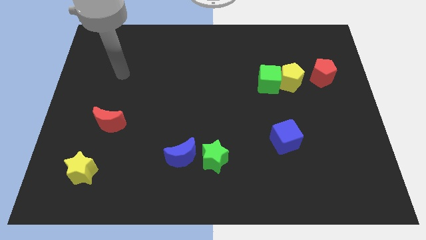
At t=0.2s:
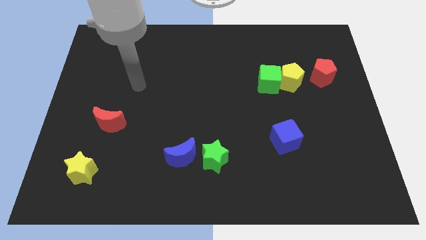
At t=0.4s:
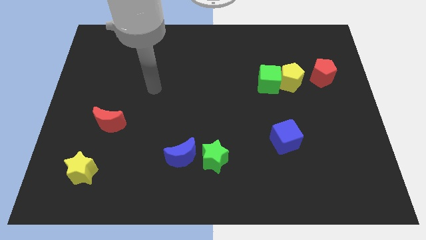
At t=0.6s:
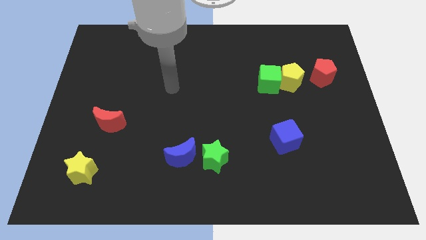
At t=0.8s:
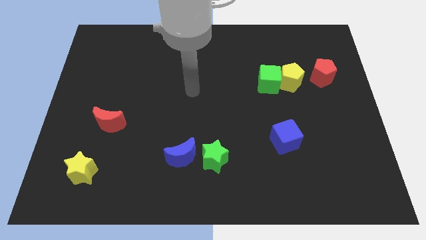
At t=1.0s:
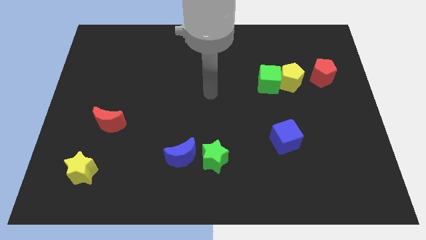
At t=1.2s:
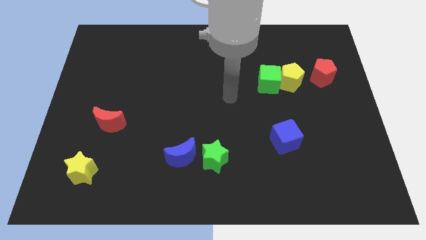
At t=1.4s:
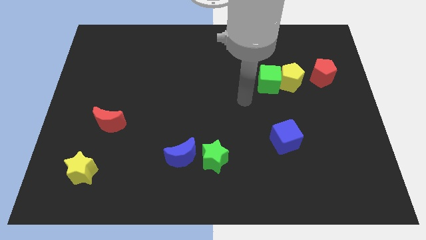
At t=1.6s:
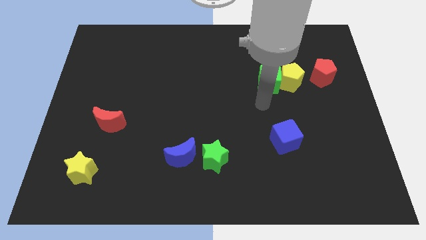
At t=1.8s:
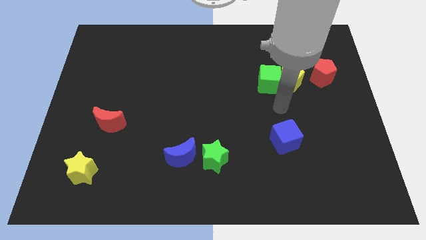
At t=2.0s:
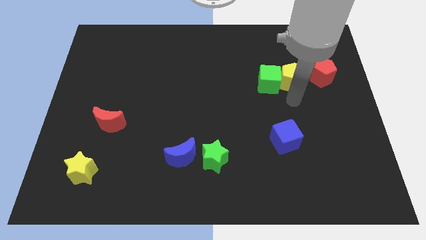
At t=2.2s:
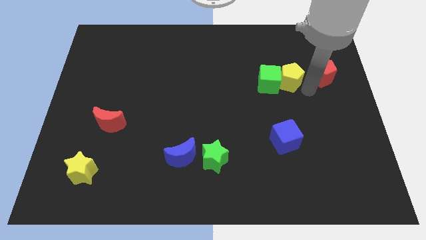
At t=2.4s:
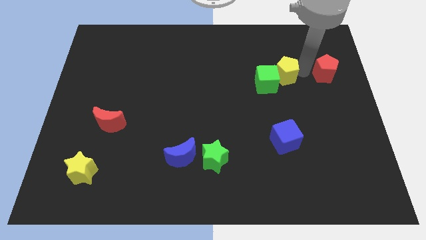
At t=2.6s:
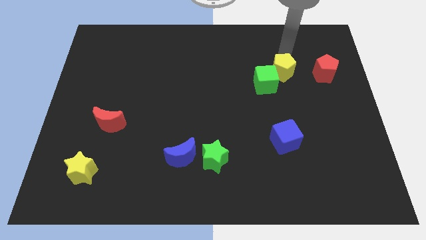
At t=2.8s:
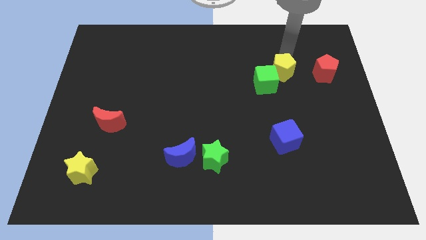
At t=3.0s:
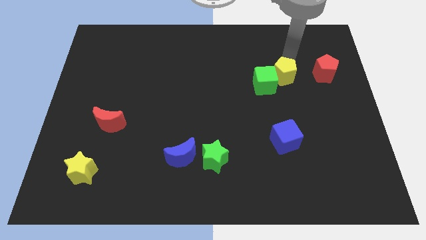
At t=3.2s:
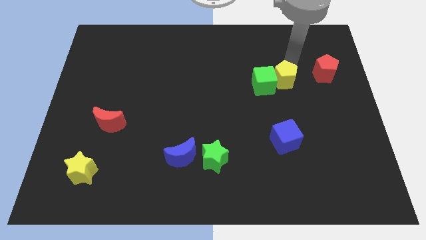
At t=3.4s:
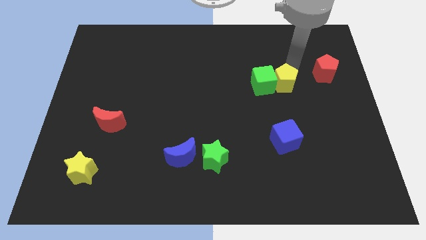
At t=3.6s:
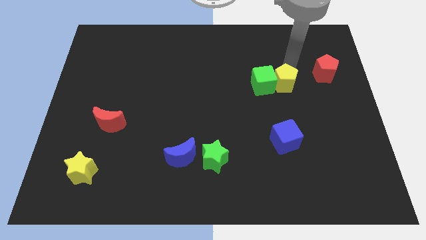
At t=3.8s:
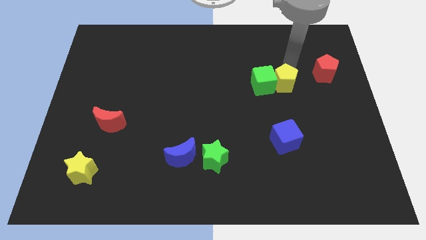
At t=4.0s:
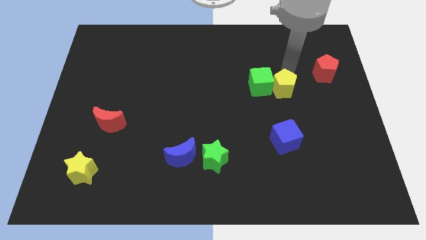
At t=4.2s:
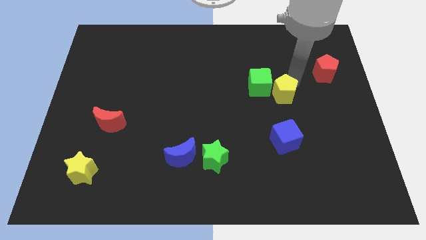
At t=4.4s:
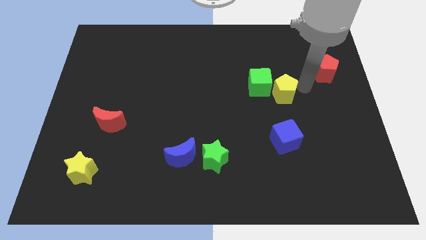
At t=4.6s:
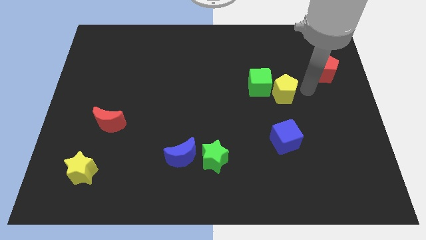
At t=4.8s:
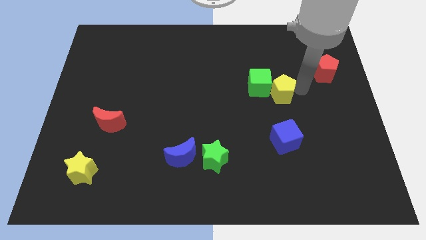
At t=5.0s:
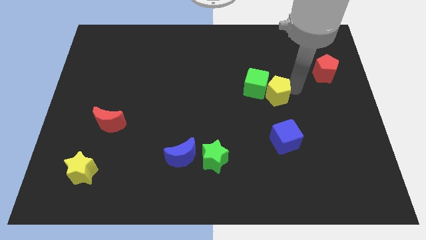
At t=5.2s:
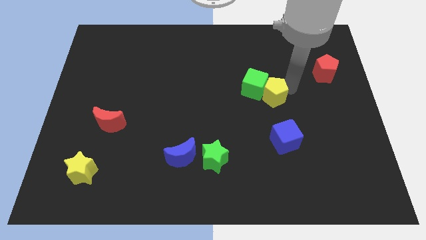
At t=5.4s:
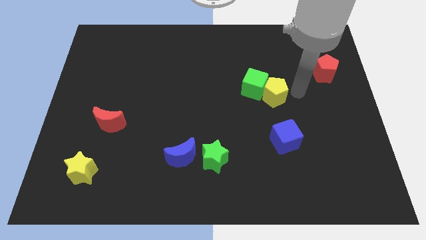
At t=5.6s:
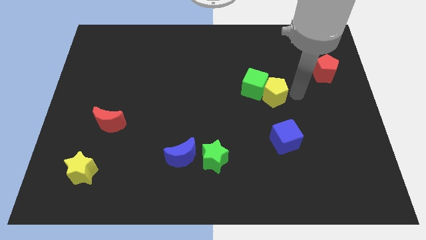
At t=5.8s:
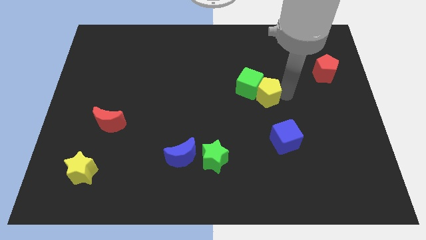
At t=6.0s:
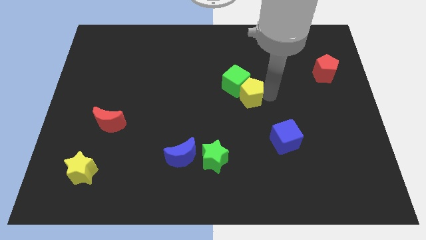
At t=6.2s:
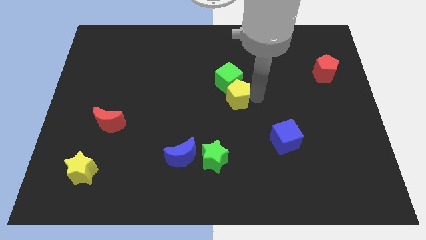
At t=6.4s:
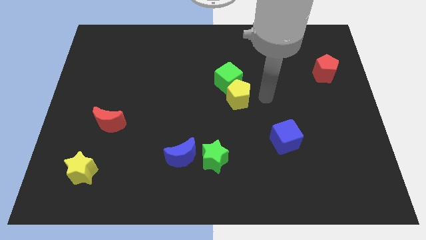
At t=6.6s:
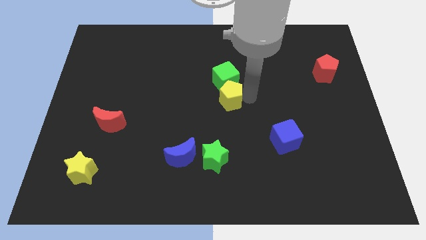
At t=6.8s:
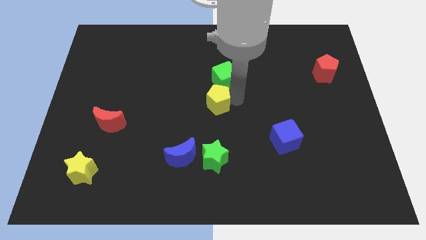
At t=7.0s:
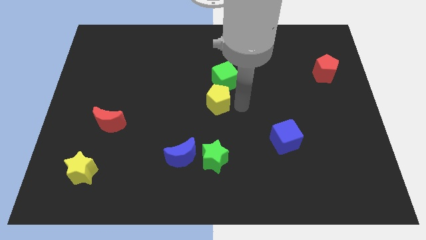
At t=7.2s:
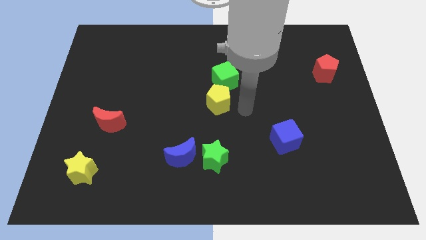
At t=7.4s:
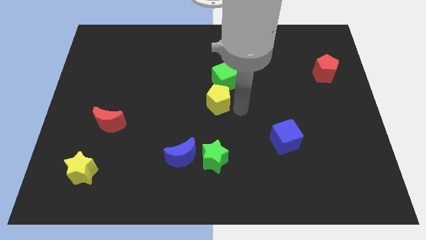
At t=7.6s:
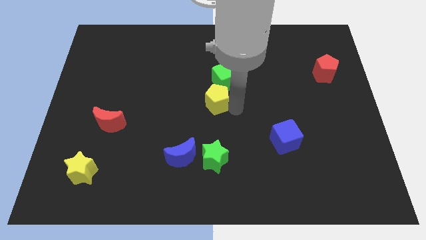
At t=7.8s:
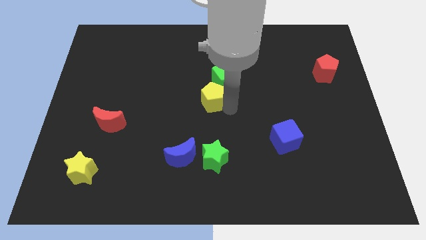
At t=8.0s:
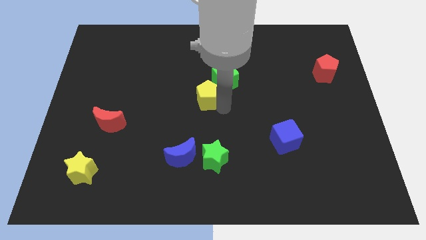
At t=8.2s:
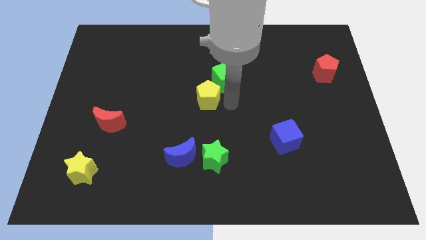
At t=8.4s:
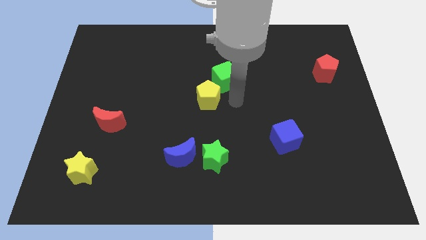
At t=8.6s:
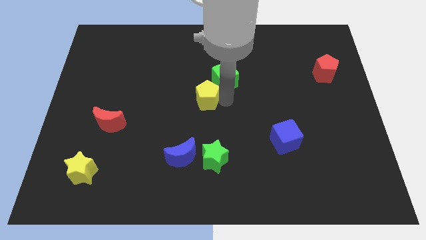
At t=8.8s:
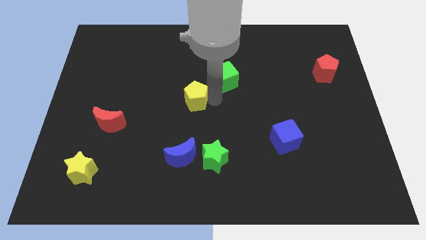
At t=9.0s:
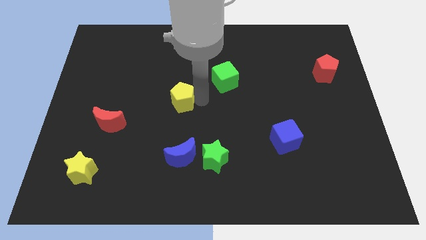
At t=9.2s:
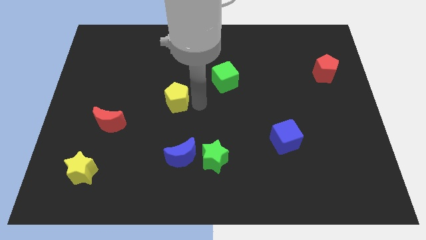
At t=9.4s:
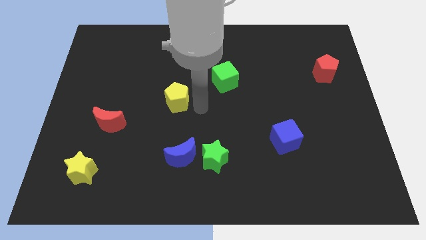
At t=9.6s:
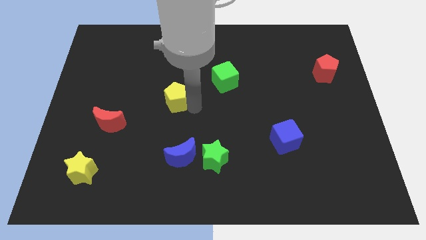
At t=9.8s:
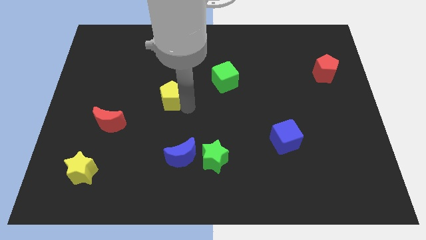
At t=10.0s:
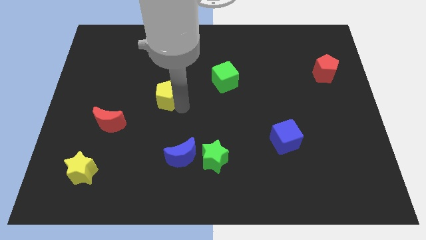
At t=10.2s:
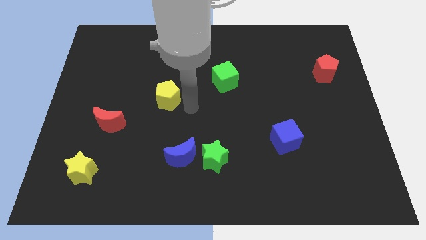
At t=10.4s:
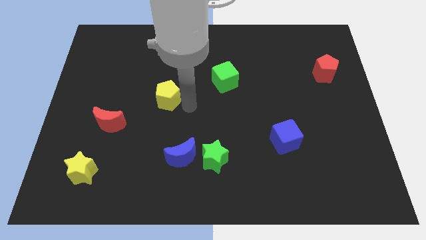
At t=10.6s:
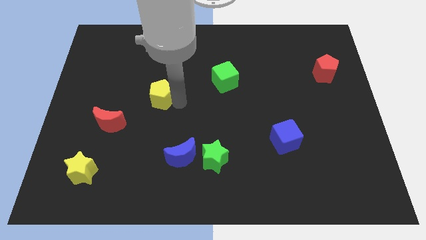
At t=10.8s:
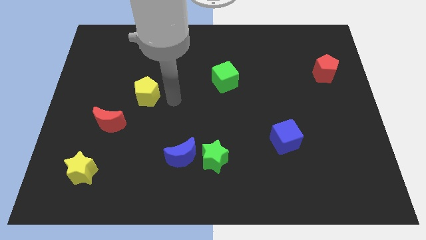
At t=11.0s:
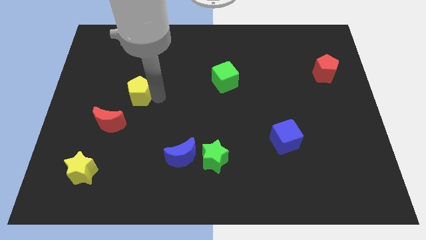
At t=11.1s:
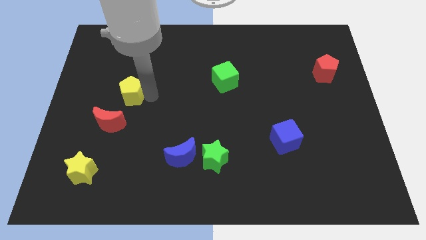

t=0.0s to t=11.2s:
push the yellow pentagon above the red moon

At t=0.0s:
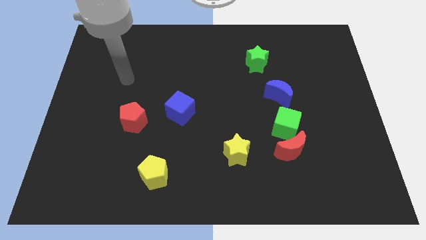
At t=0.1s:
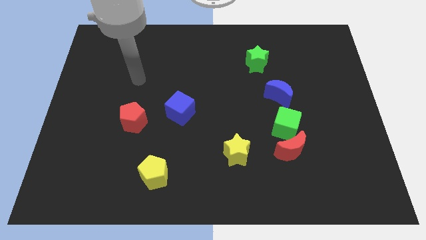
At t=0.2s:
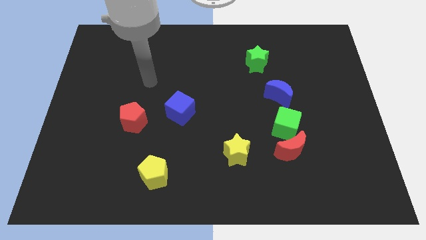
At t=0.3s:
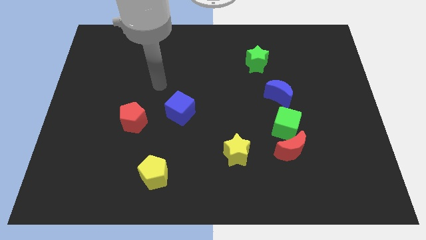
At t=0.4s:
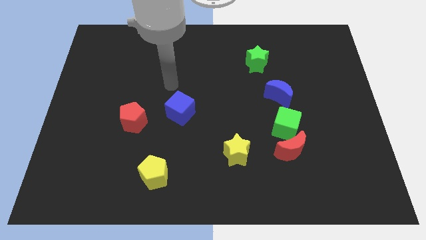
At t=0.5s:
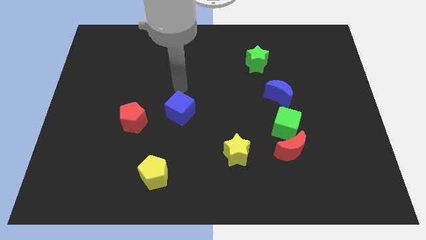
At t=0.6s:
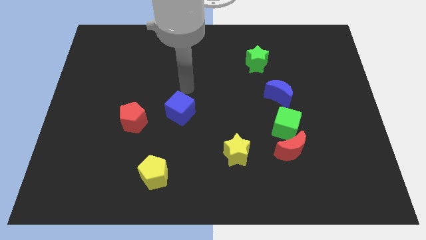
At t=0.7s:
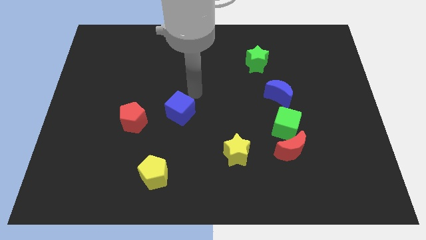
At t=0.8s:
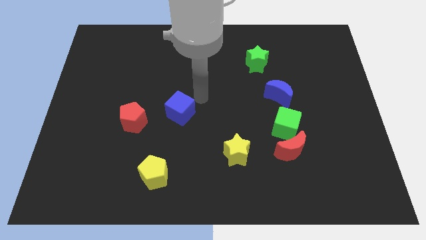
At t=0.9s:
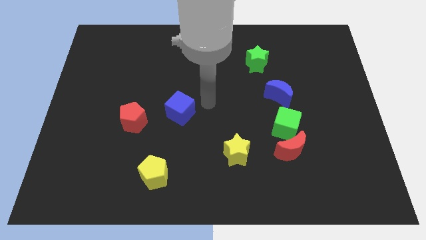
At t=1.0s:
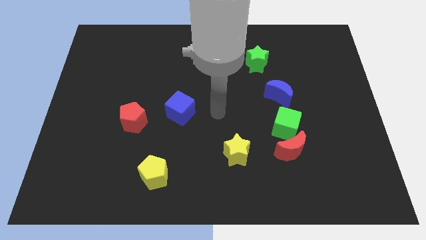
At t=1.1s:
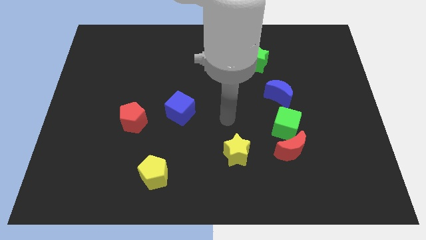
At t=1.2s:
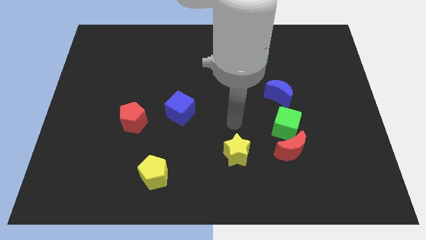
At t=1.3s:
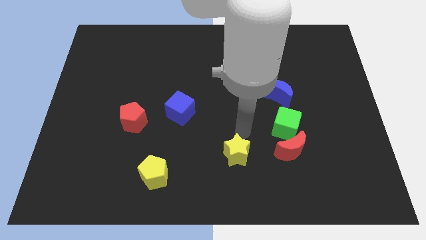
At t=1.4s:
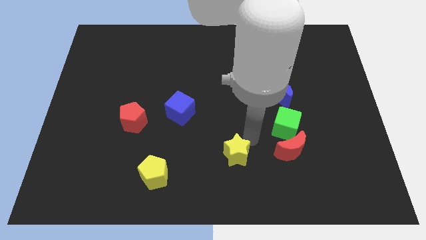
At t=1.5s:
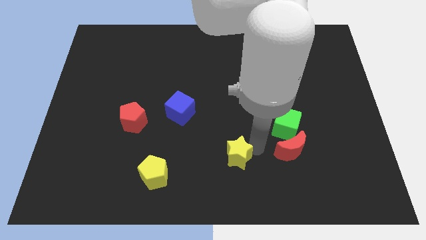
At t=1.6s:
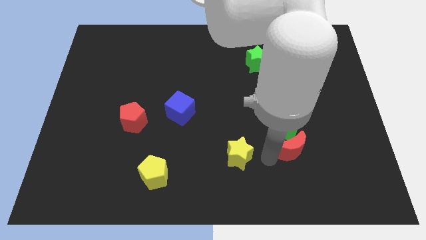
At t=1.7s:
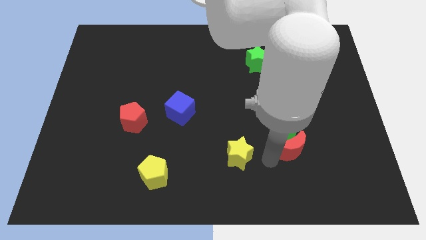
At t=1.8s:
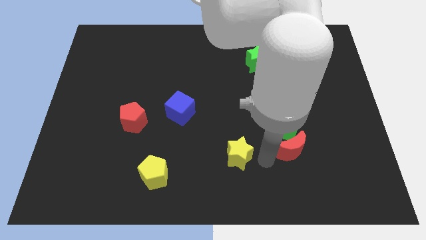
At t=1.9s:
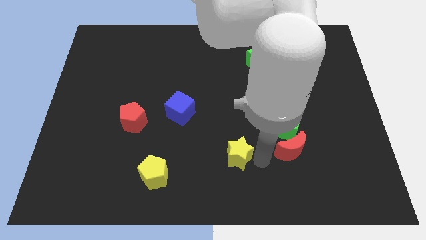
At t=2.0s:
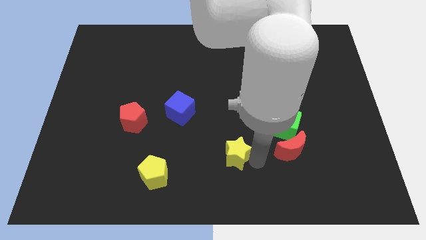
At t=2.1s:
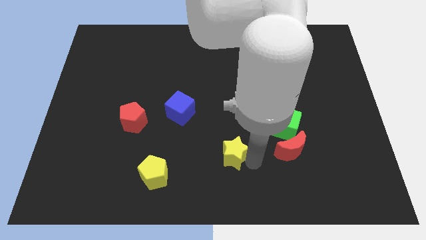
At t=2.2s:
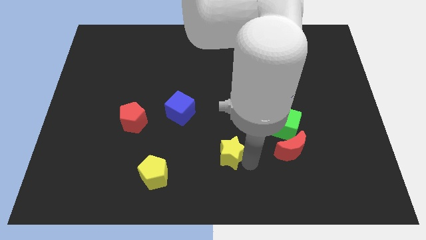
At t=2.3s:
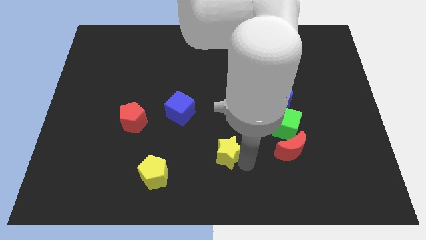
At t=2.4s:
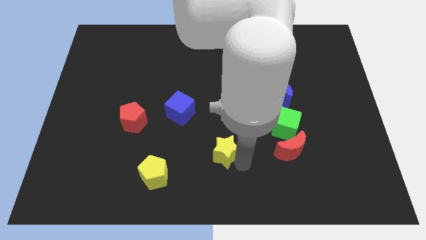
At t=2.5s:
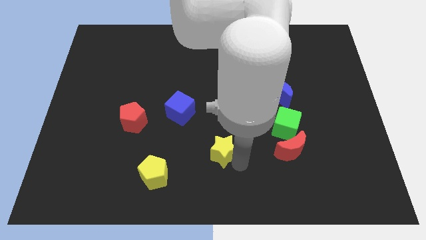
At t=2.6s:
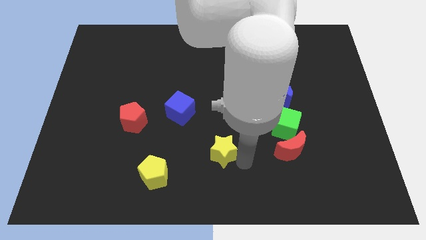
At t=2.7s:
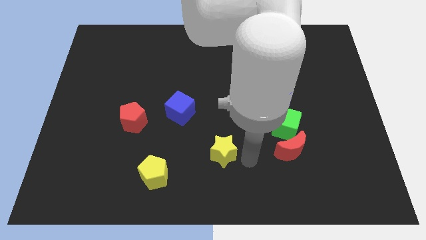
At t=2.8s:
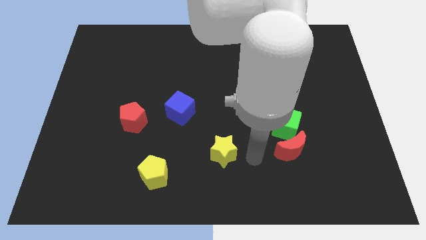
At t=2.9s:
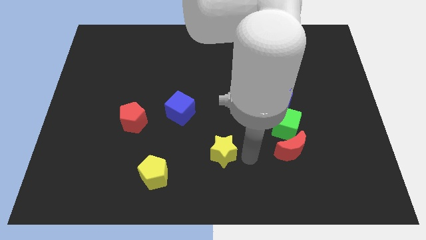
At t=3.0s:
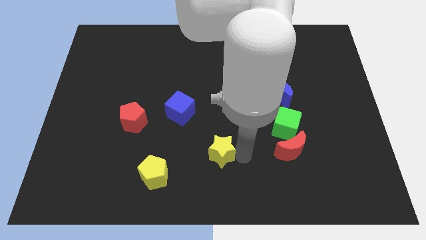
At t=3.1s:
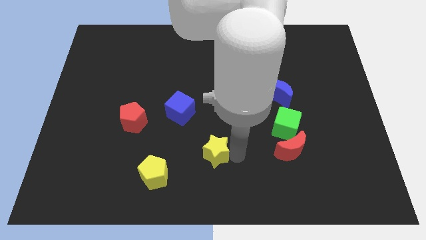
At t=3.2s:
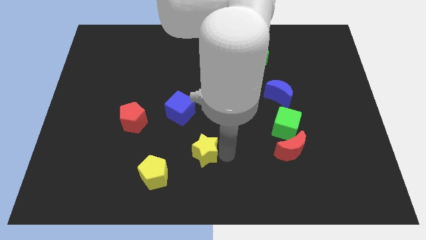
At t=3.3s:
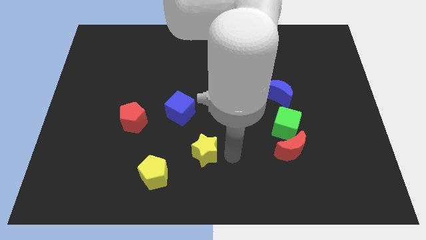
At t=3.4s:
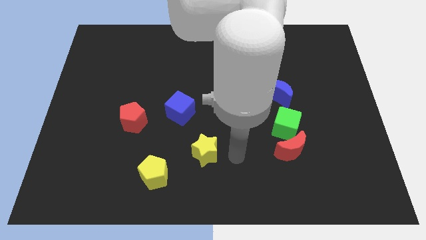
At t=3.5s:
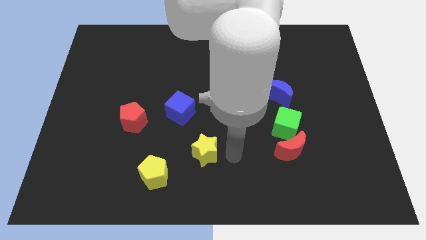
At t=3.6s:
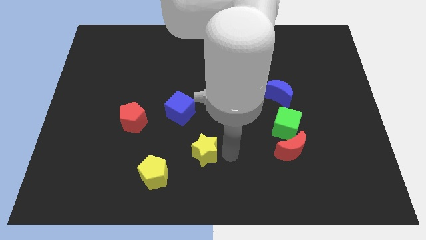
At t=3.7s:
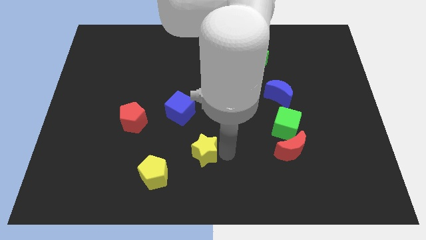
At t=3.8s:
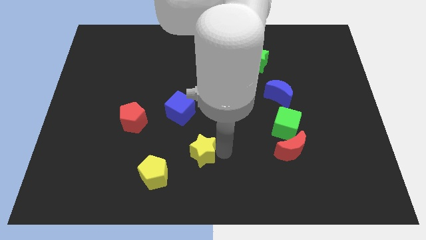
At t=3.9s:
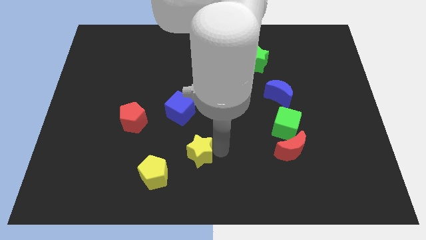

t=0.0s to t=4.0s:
slide the yellow star below the blue cube
